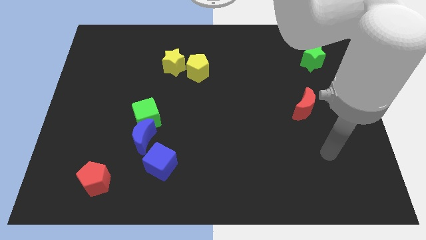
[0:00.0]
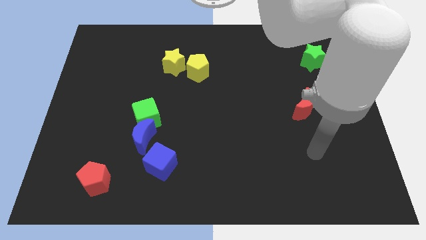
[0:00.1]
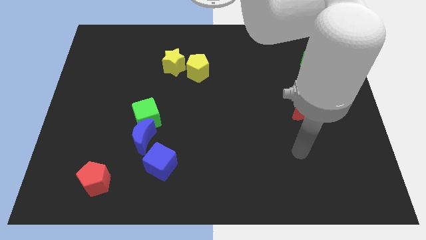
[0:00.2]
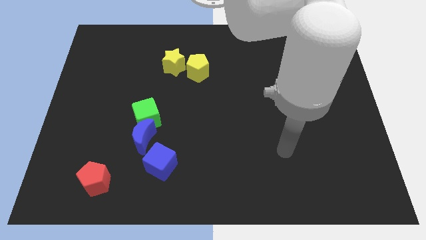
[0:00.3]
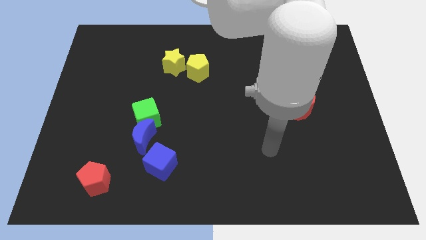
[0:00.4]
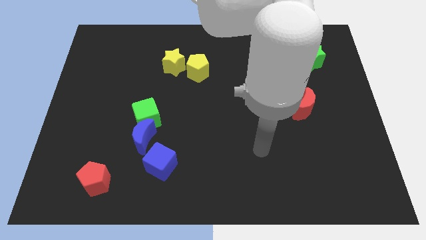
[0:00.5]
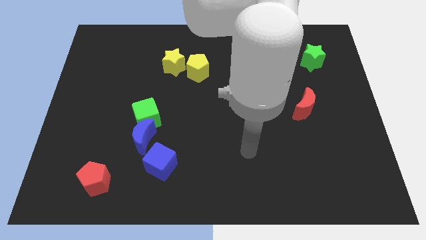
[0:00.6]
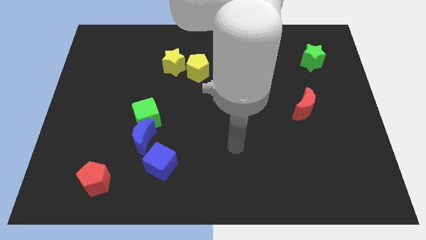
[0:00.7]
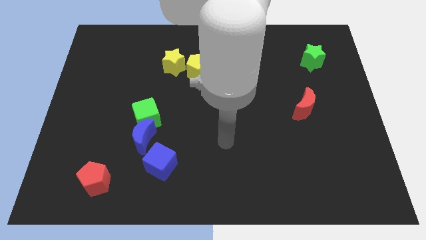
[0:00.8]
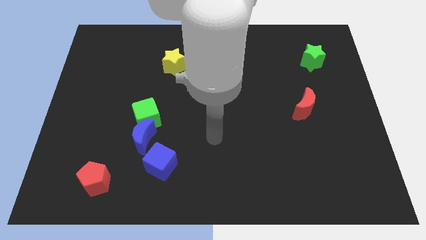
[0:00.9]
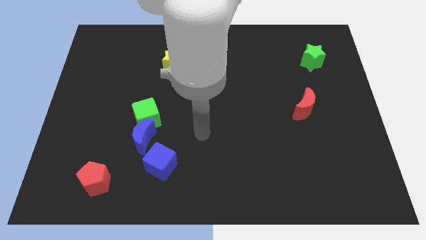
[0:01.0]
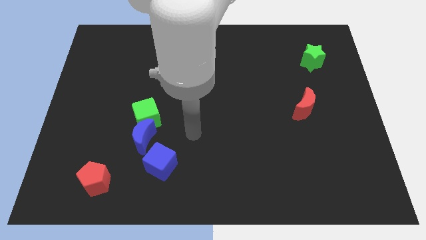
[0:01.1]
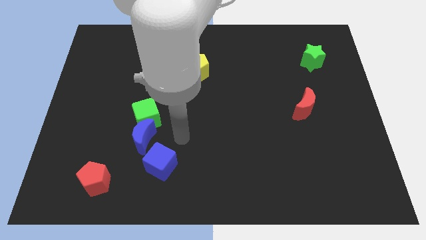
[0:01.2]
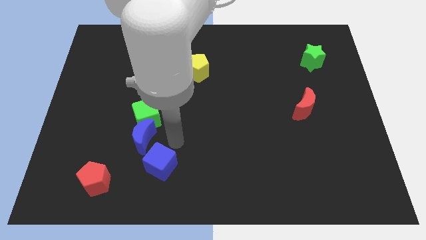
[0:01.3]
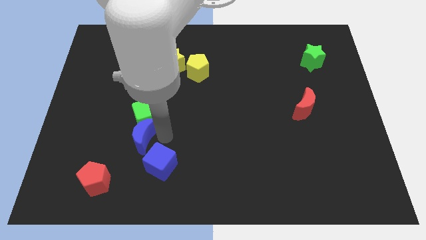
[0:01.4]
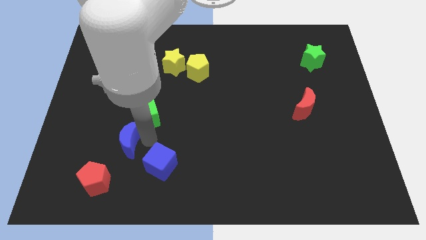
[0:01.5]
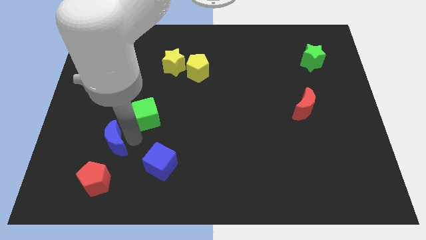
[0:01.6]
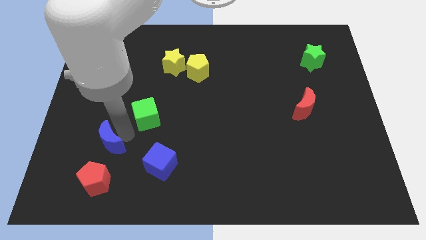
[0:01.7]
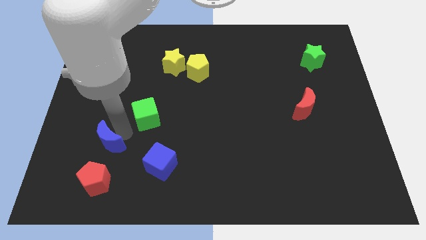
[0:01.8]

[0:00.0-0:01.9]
separate the green cube from the blue moon

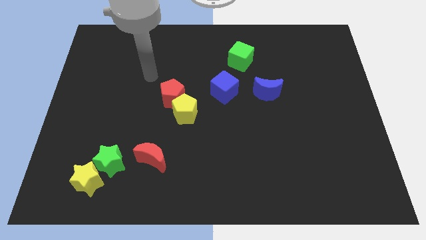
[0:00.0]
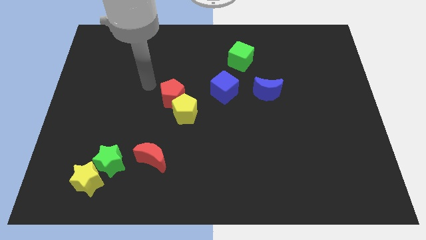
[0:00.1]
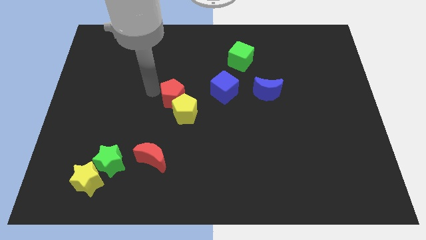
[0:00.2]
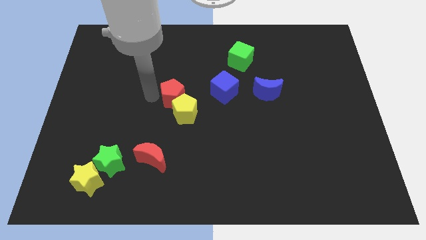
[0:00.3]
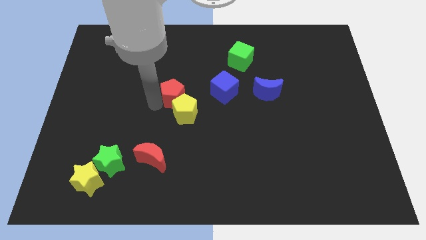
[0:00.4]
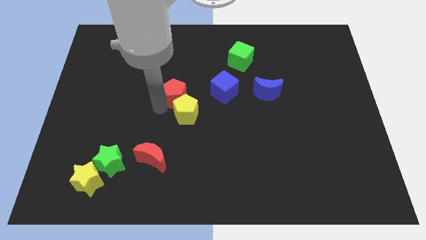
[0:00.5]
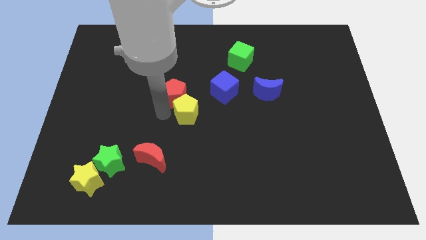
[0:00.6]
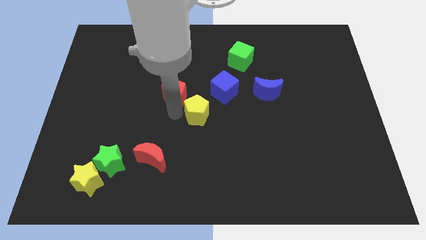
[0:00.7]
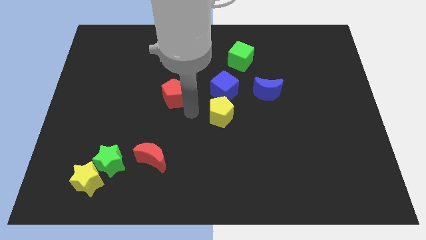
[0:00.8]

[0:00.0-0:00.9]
separate the red pentagon from the yellow pentagon

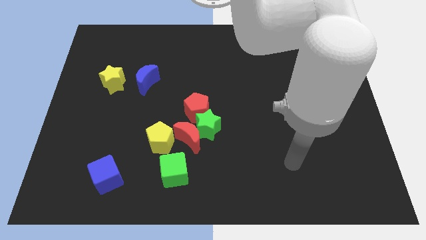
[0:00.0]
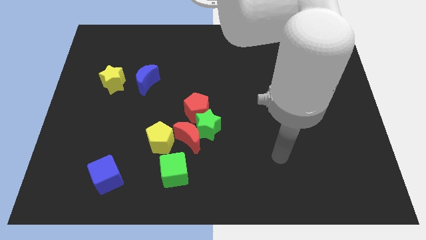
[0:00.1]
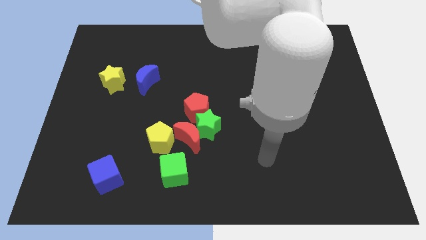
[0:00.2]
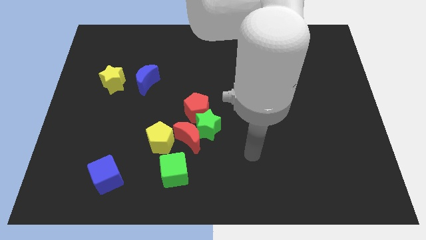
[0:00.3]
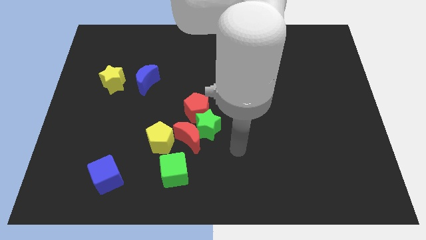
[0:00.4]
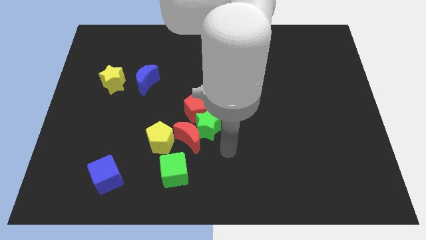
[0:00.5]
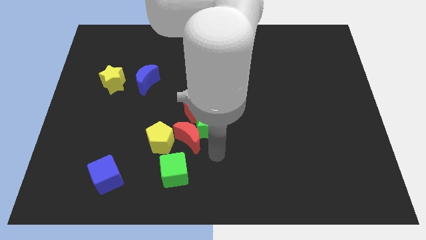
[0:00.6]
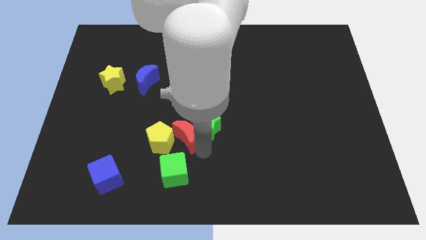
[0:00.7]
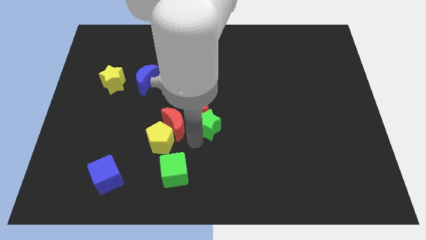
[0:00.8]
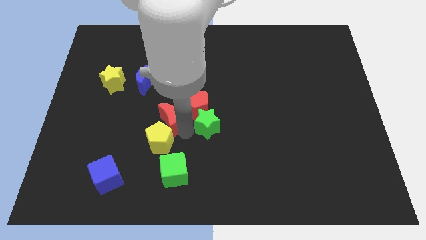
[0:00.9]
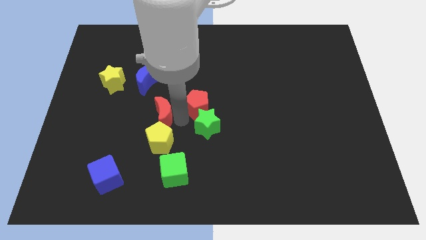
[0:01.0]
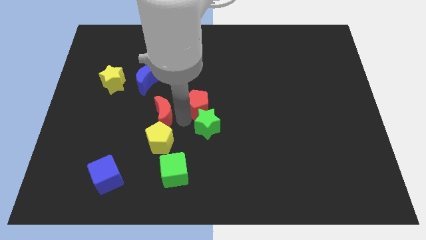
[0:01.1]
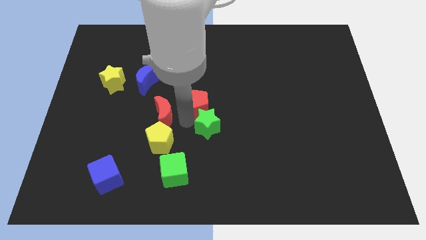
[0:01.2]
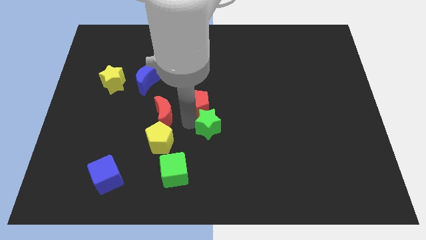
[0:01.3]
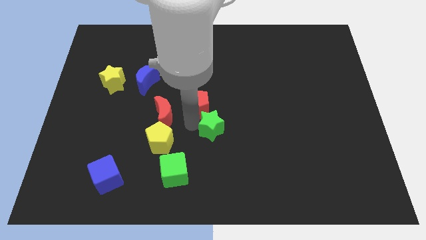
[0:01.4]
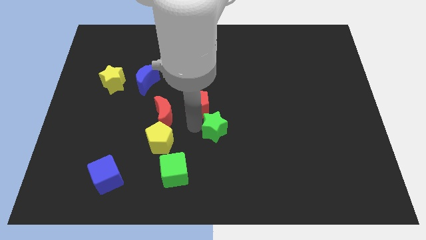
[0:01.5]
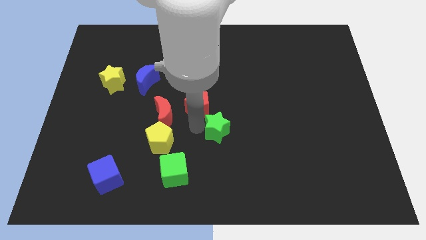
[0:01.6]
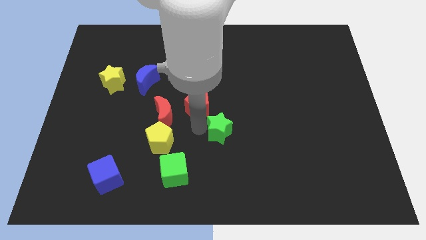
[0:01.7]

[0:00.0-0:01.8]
move the green star away from the red moon and red pentagon

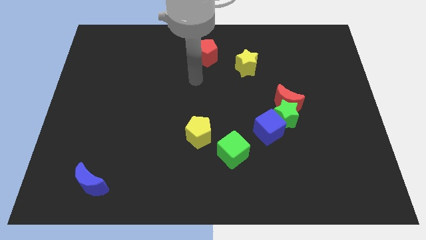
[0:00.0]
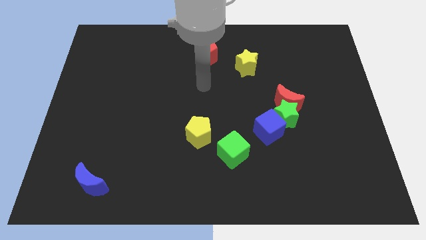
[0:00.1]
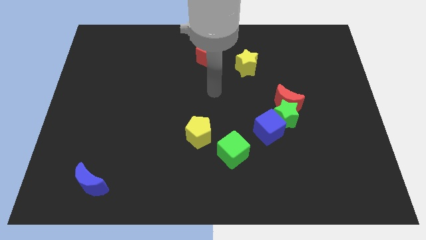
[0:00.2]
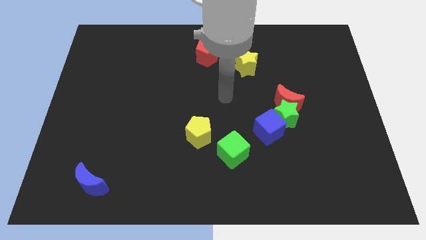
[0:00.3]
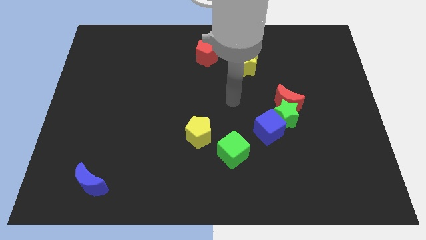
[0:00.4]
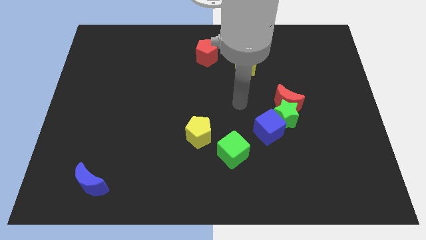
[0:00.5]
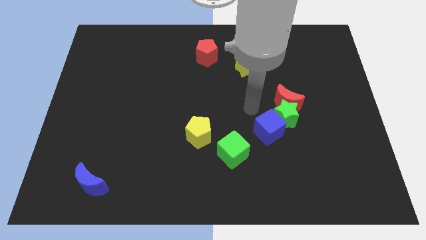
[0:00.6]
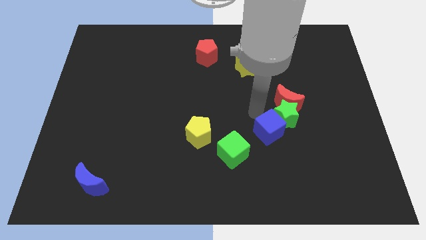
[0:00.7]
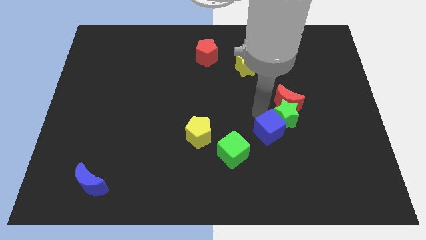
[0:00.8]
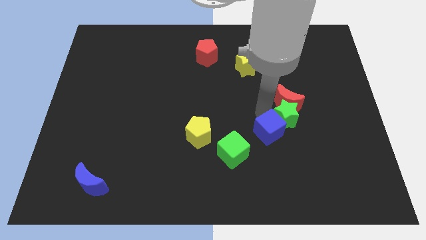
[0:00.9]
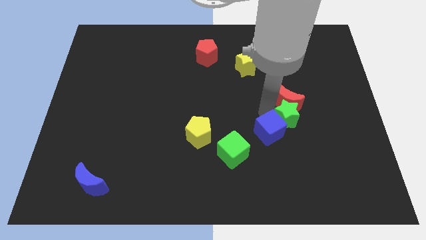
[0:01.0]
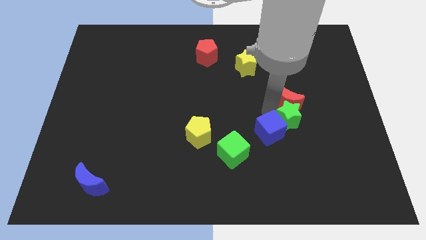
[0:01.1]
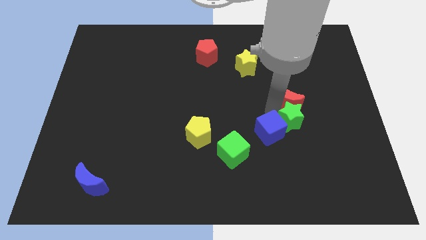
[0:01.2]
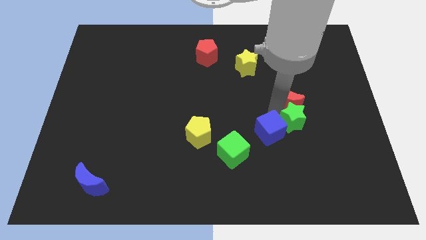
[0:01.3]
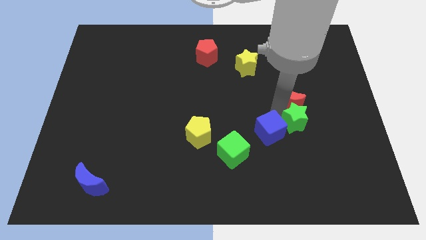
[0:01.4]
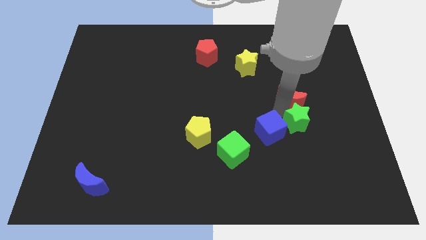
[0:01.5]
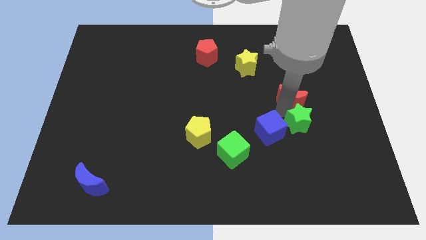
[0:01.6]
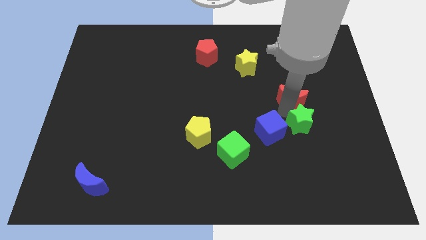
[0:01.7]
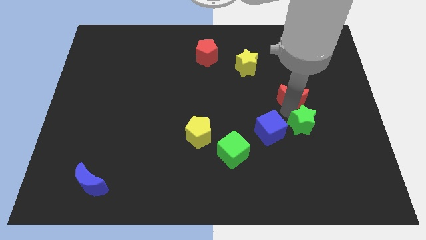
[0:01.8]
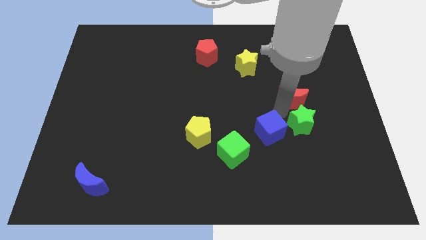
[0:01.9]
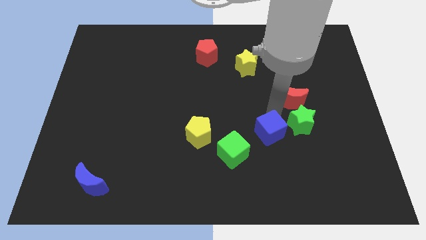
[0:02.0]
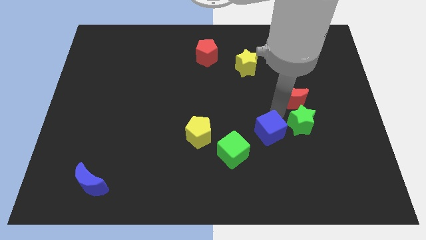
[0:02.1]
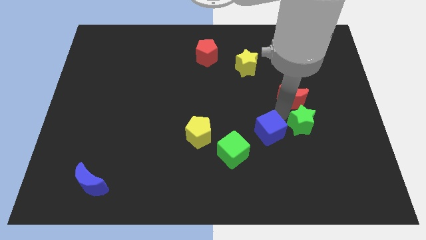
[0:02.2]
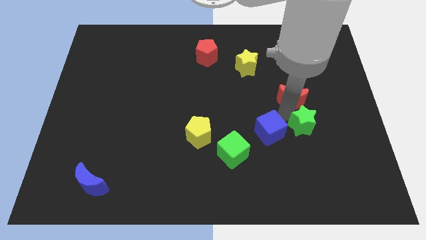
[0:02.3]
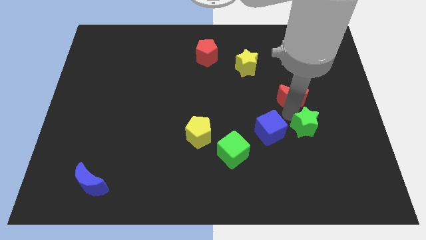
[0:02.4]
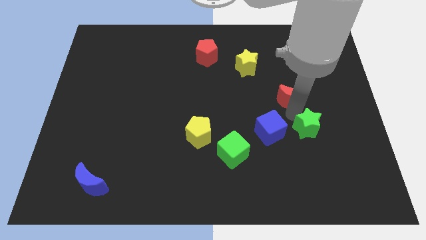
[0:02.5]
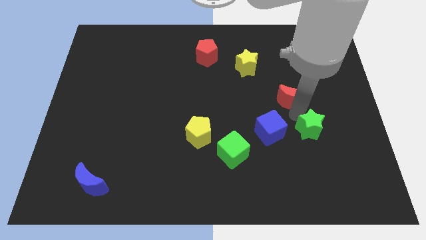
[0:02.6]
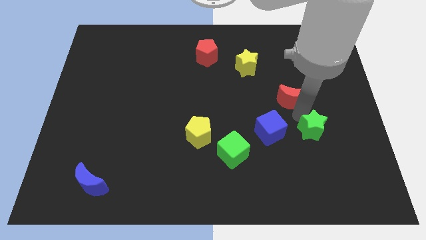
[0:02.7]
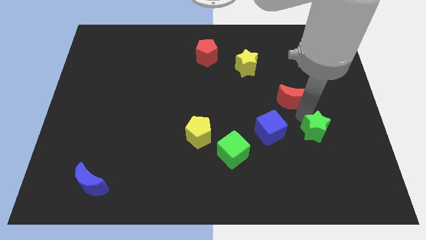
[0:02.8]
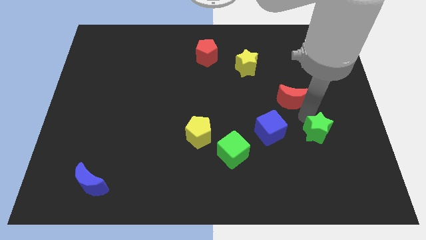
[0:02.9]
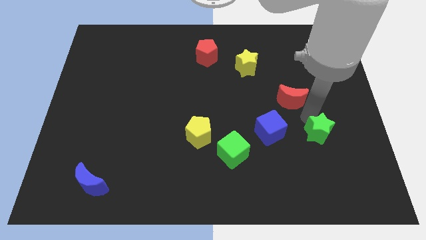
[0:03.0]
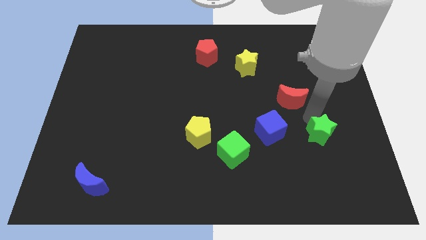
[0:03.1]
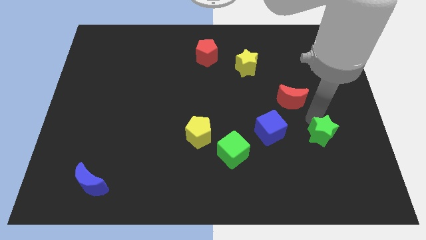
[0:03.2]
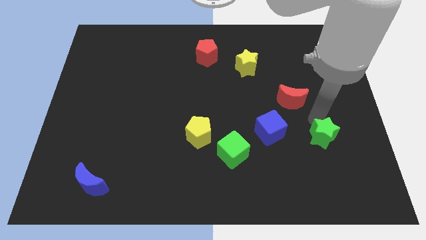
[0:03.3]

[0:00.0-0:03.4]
separate the green star from the red moon and blue cube

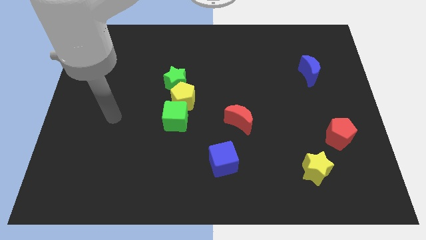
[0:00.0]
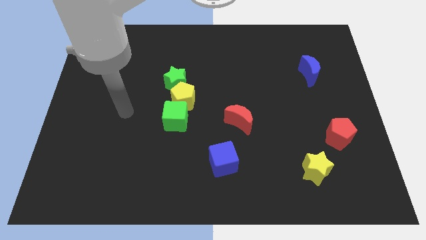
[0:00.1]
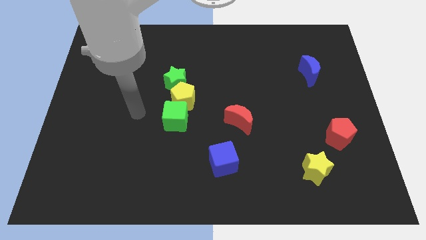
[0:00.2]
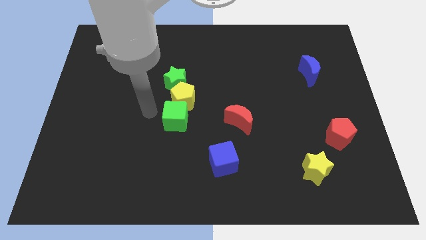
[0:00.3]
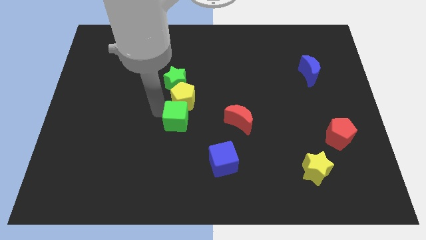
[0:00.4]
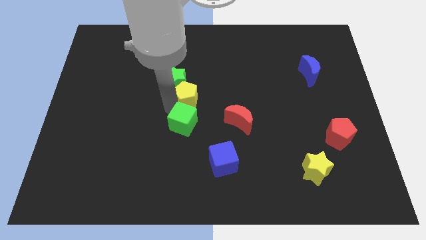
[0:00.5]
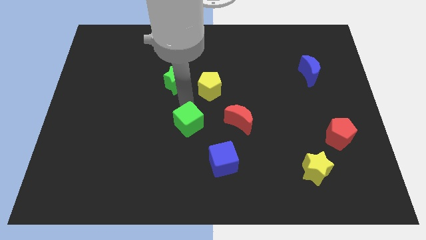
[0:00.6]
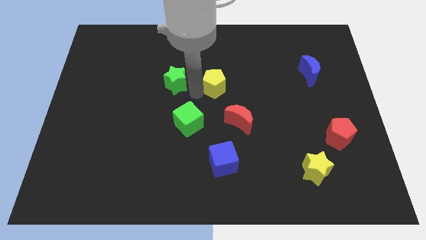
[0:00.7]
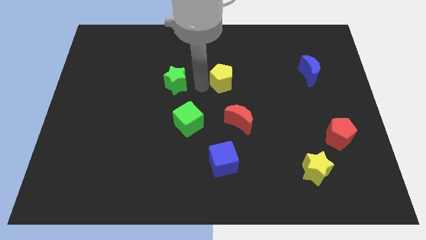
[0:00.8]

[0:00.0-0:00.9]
move the green star away from the yellow pentagon

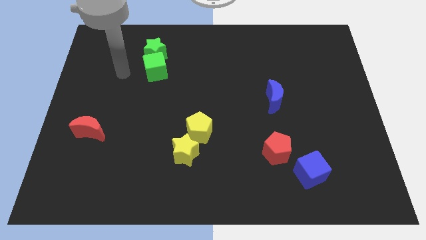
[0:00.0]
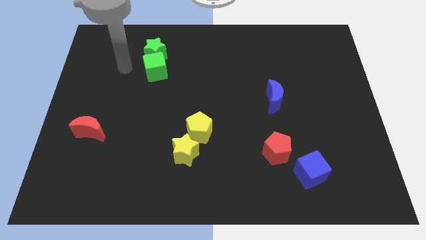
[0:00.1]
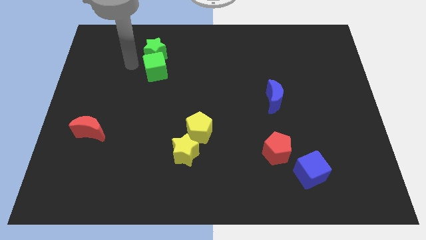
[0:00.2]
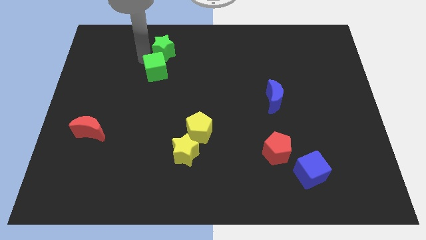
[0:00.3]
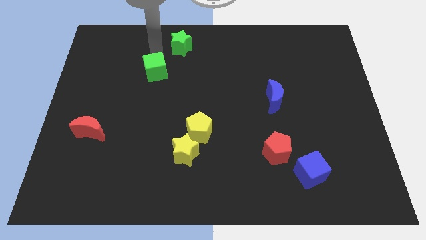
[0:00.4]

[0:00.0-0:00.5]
pull the green cube apart from the green star
